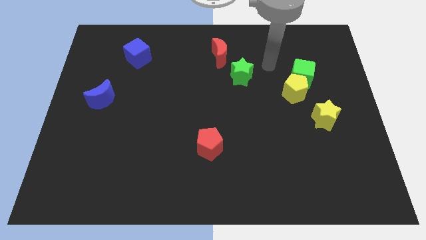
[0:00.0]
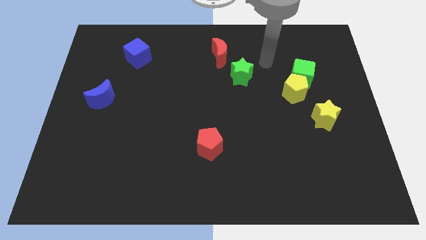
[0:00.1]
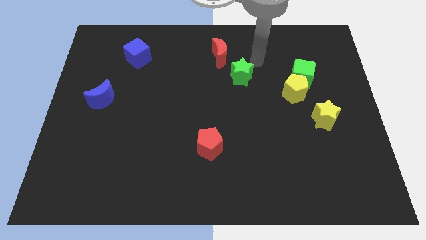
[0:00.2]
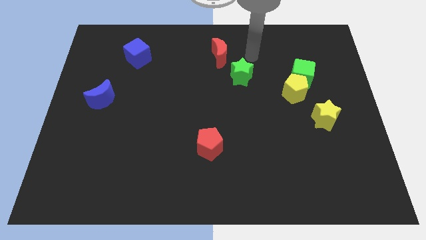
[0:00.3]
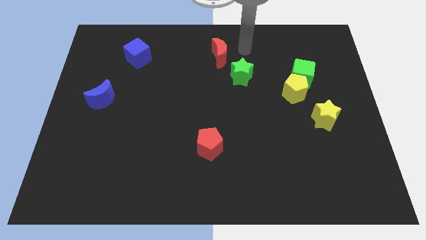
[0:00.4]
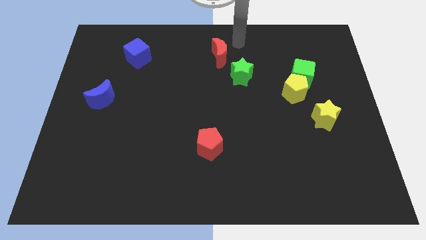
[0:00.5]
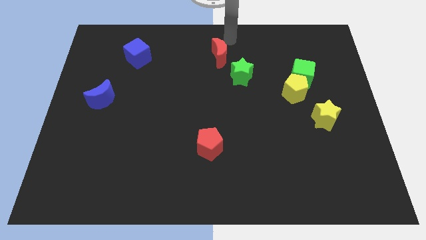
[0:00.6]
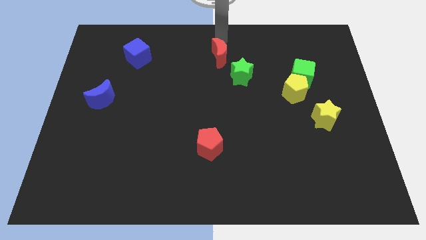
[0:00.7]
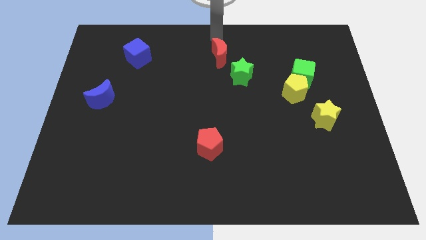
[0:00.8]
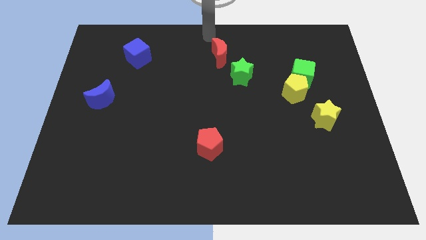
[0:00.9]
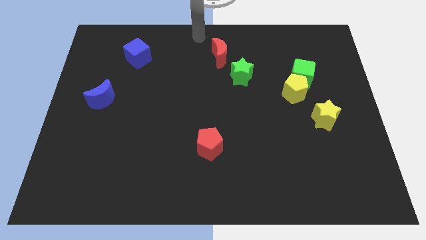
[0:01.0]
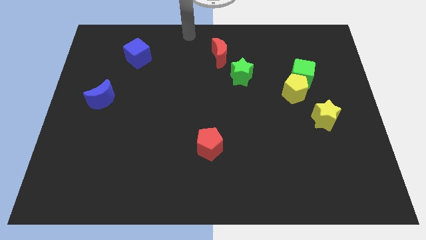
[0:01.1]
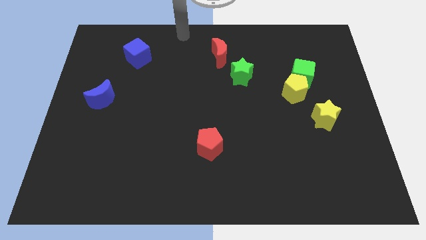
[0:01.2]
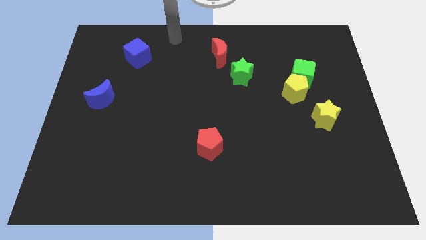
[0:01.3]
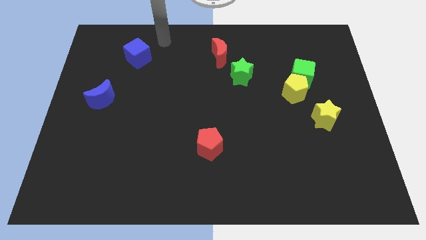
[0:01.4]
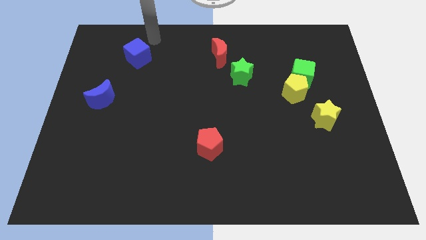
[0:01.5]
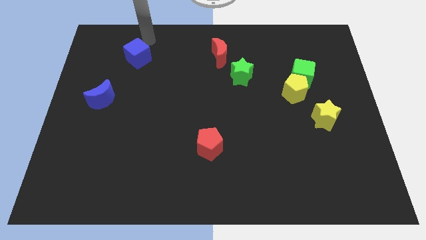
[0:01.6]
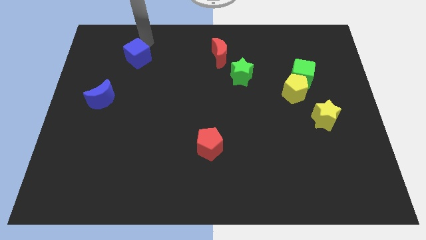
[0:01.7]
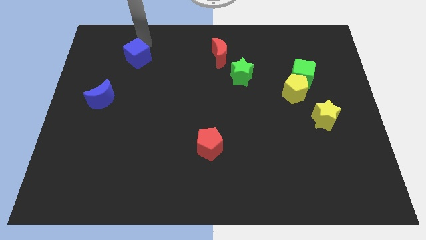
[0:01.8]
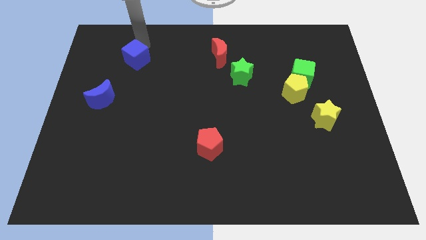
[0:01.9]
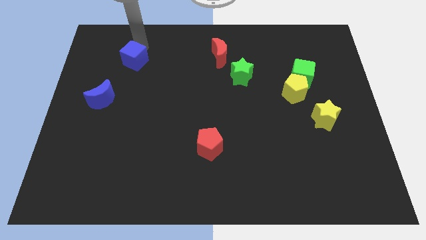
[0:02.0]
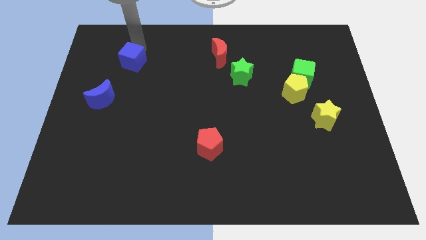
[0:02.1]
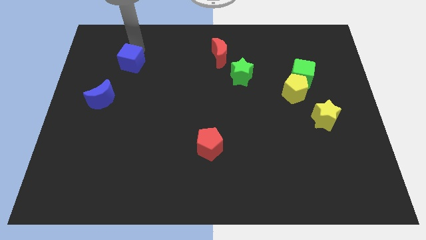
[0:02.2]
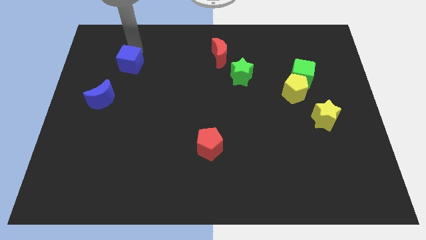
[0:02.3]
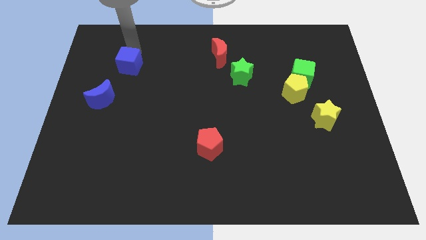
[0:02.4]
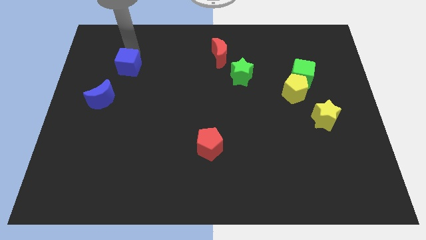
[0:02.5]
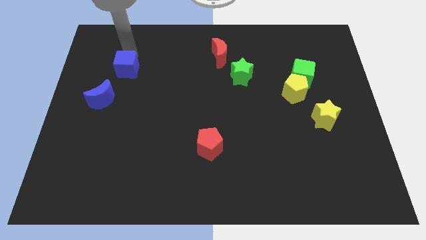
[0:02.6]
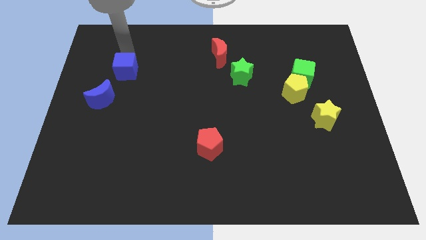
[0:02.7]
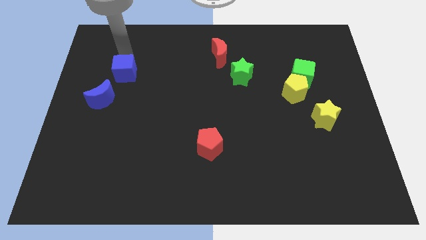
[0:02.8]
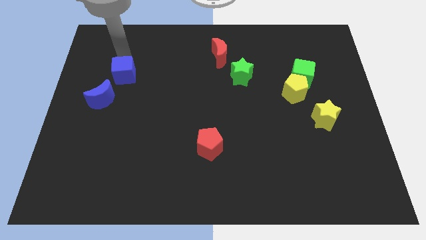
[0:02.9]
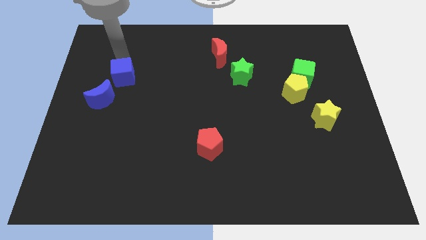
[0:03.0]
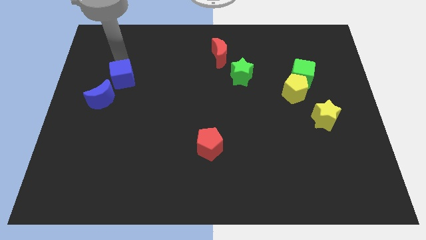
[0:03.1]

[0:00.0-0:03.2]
slightly move the blue cube downwards

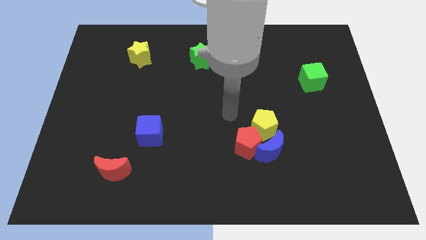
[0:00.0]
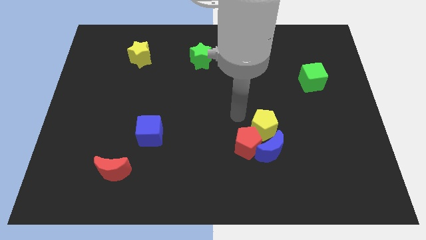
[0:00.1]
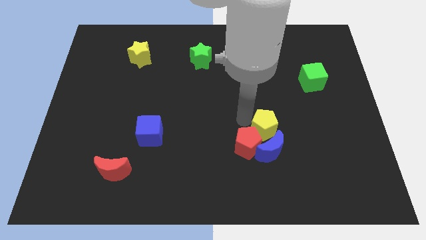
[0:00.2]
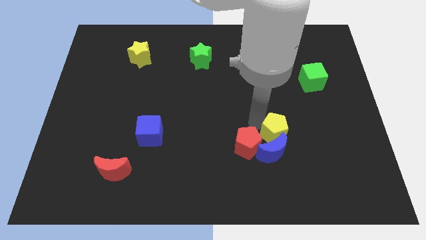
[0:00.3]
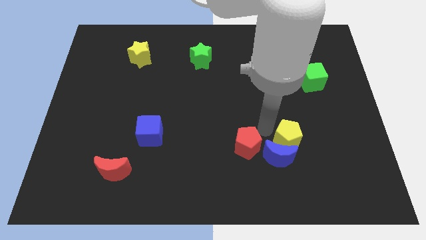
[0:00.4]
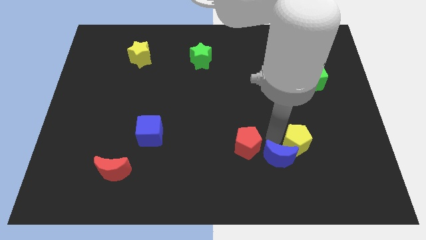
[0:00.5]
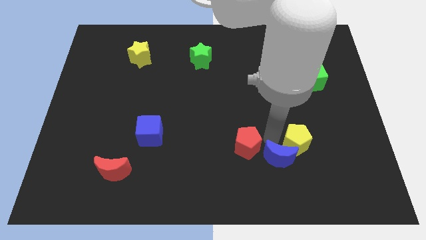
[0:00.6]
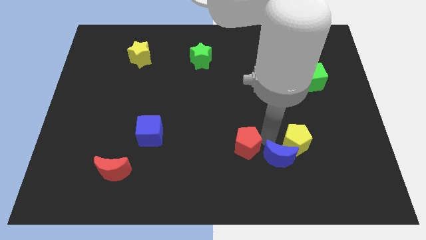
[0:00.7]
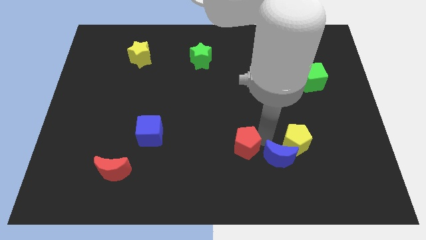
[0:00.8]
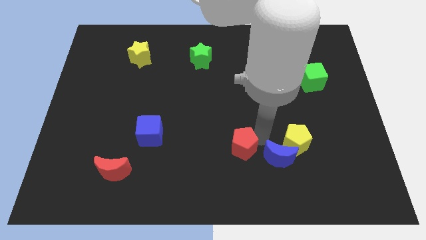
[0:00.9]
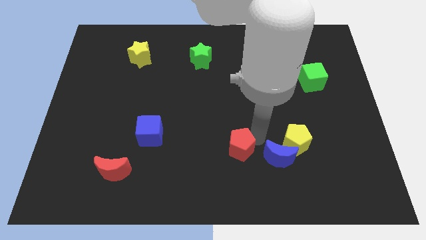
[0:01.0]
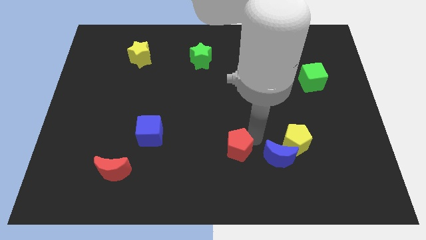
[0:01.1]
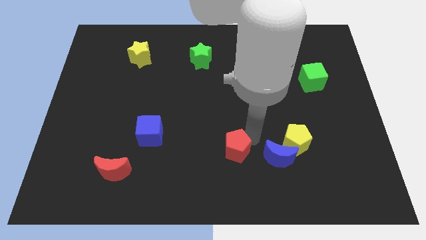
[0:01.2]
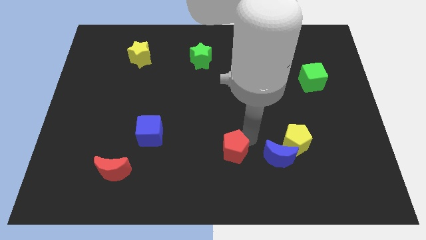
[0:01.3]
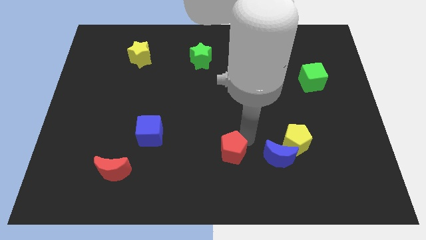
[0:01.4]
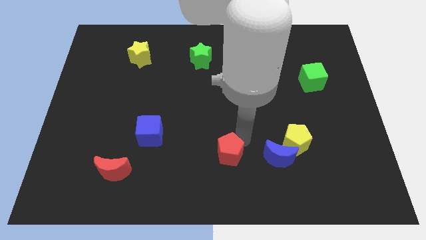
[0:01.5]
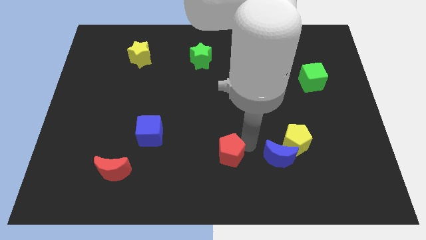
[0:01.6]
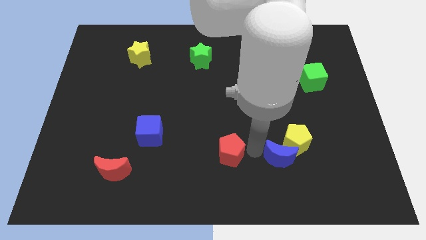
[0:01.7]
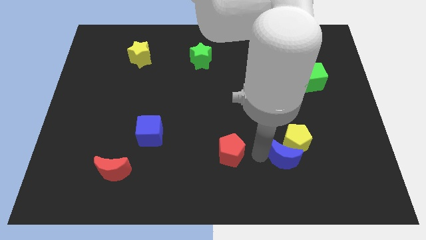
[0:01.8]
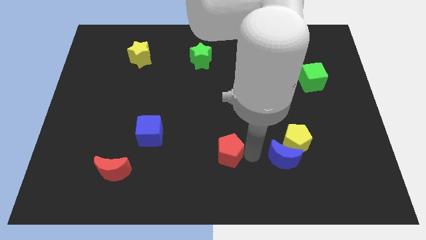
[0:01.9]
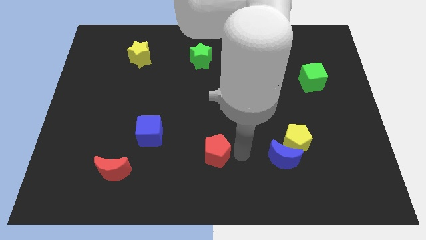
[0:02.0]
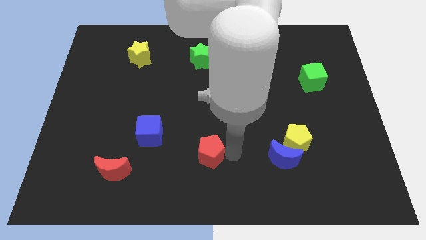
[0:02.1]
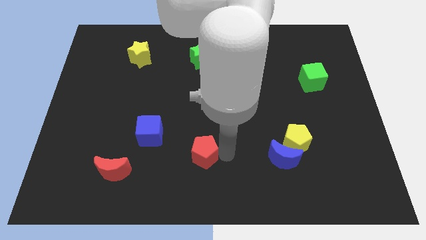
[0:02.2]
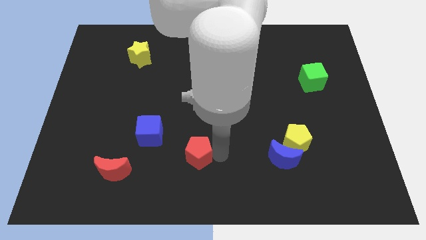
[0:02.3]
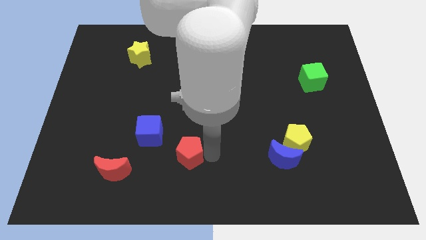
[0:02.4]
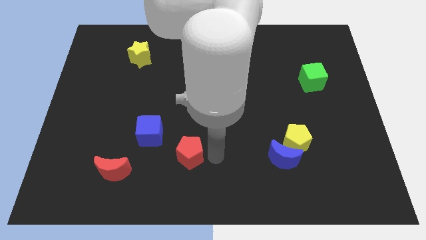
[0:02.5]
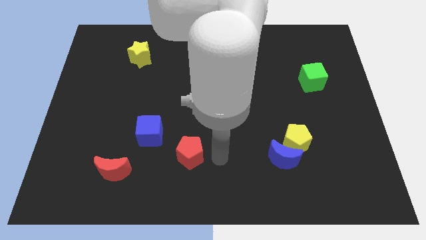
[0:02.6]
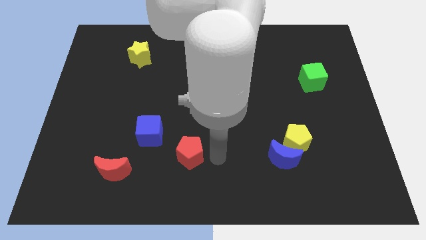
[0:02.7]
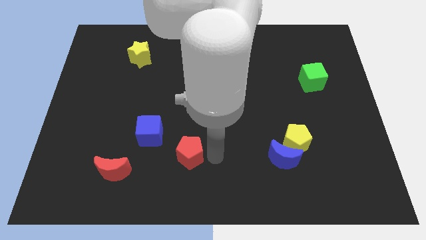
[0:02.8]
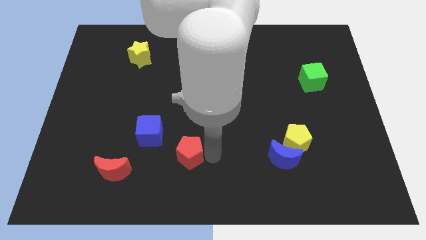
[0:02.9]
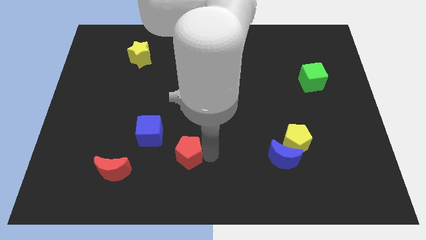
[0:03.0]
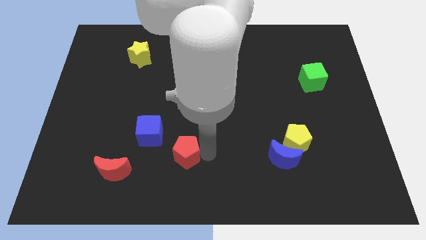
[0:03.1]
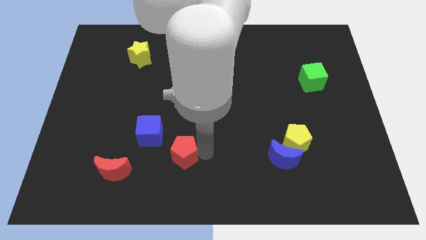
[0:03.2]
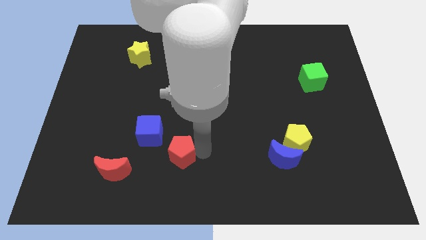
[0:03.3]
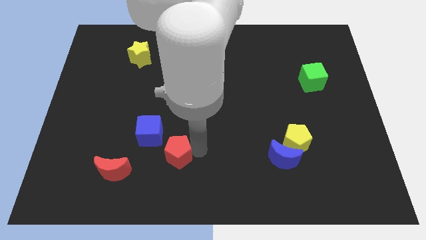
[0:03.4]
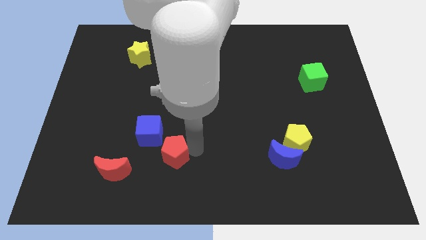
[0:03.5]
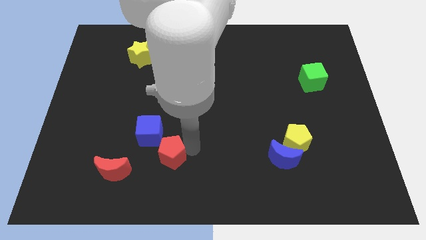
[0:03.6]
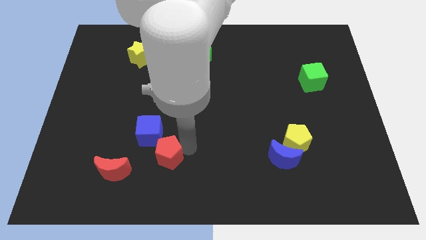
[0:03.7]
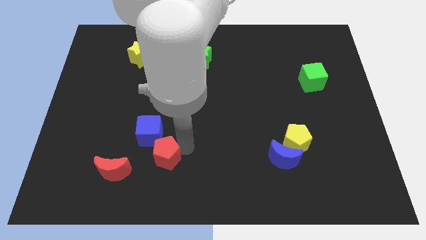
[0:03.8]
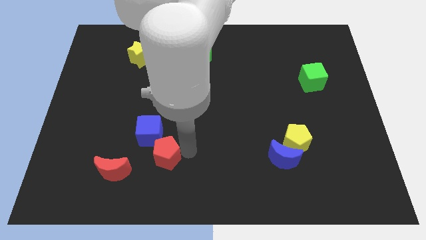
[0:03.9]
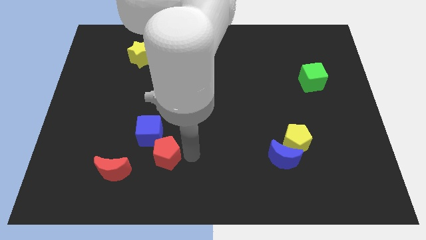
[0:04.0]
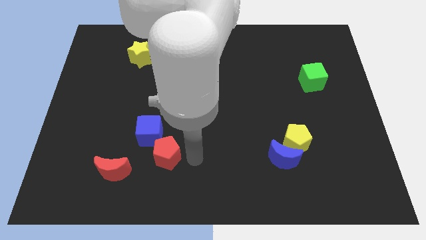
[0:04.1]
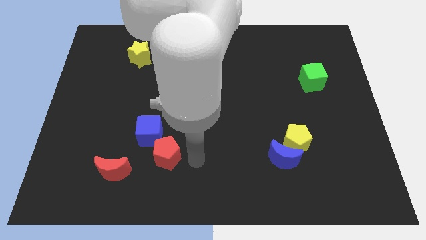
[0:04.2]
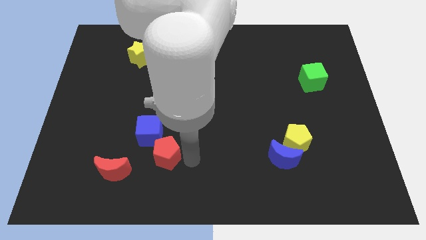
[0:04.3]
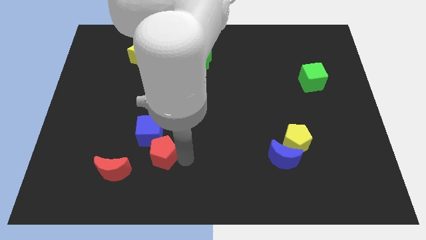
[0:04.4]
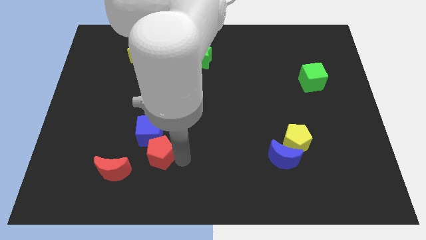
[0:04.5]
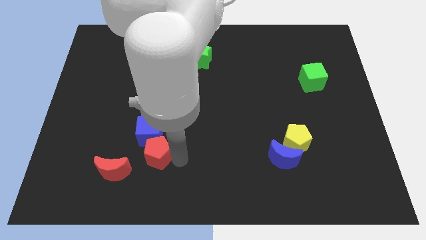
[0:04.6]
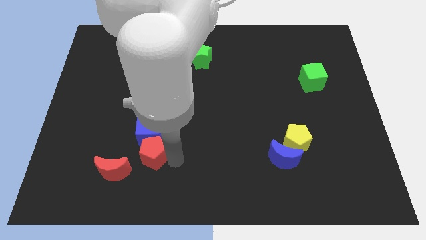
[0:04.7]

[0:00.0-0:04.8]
push the red pentagon to the left
